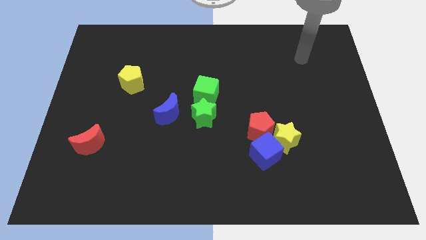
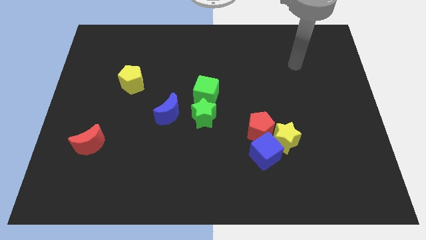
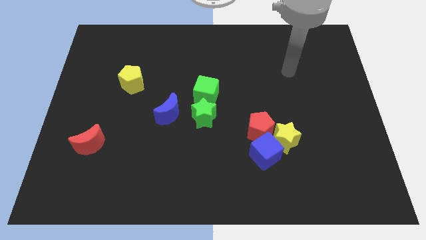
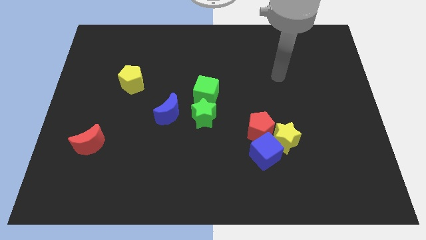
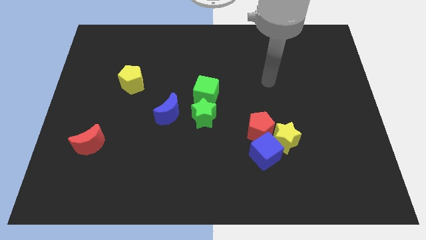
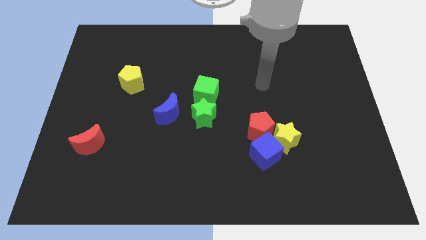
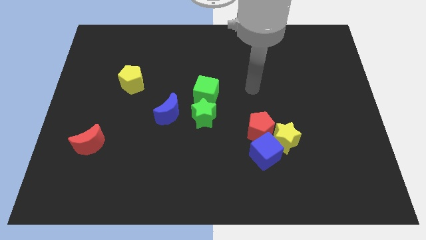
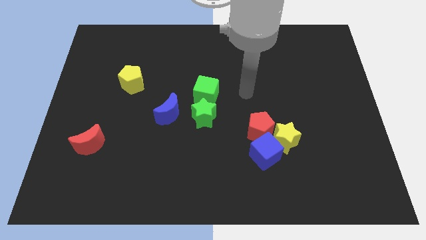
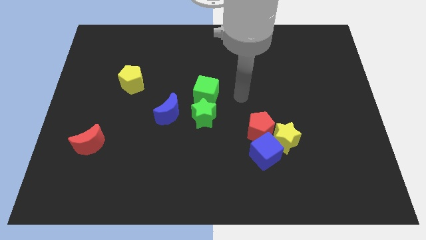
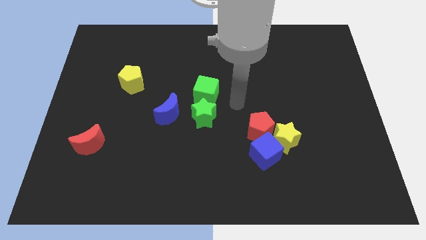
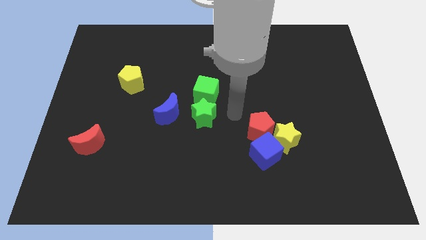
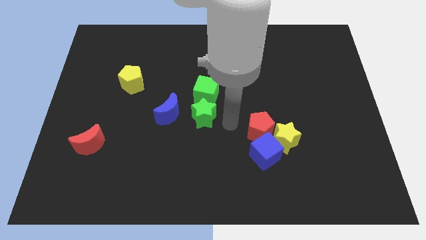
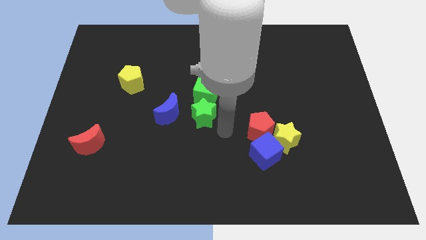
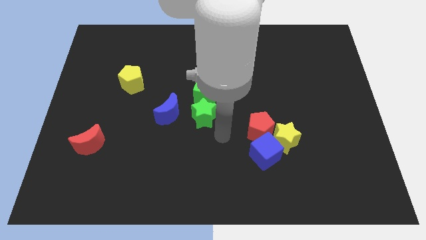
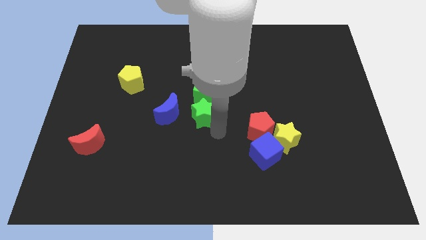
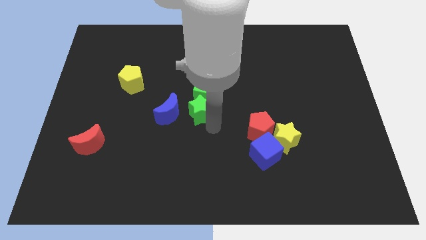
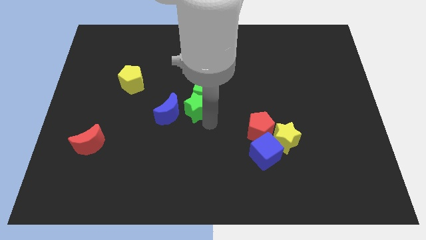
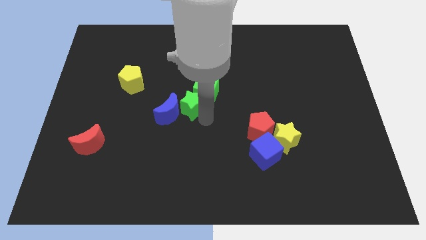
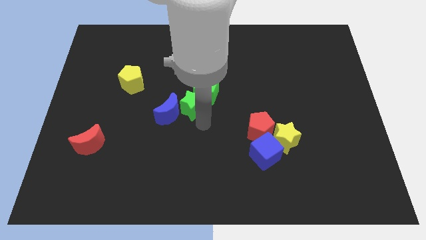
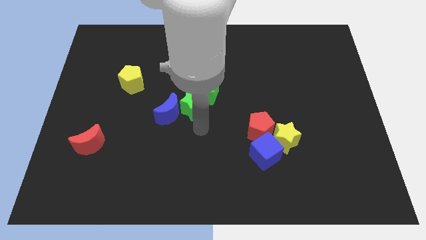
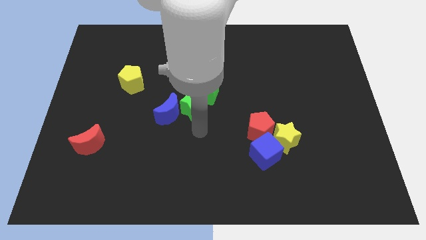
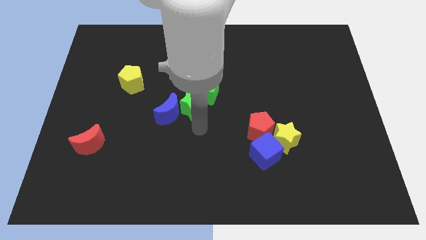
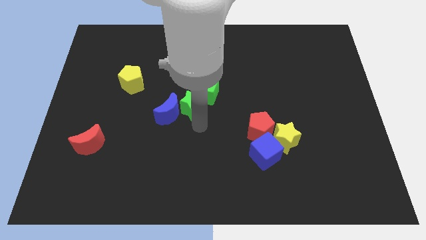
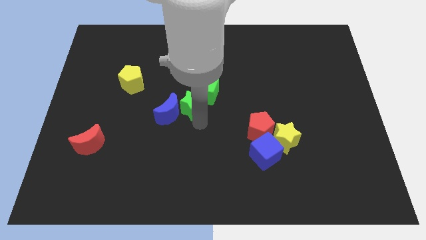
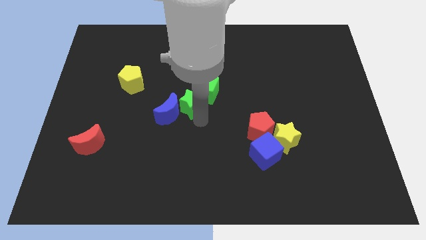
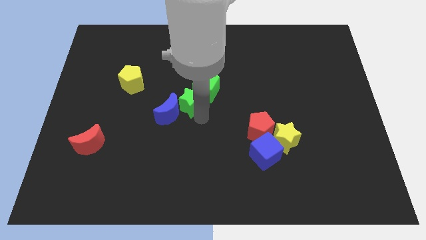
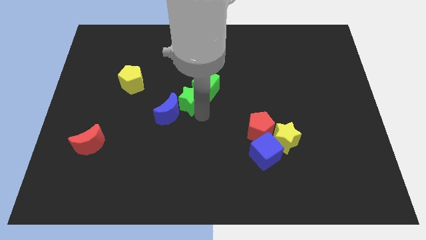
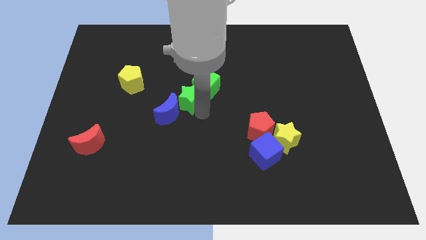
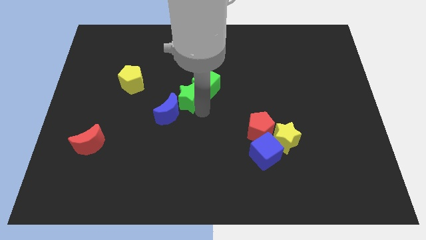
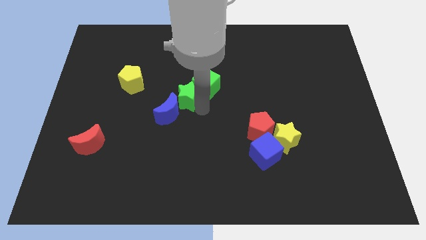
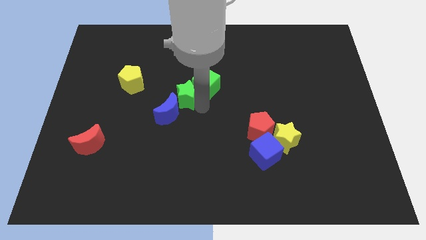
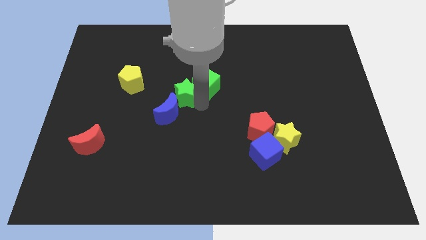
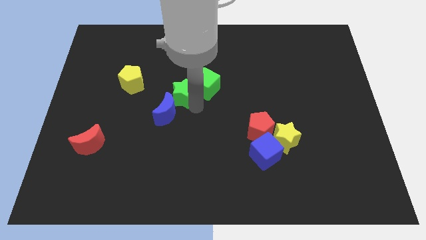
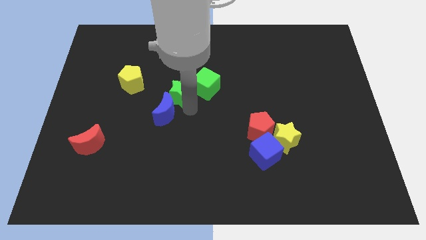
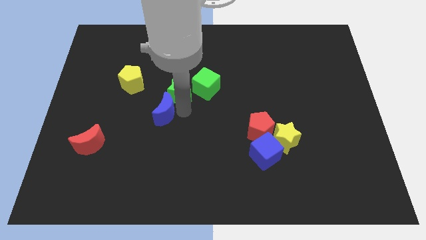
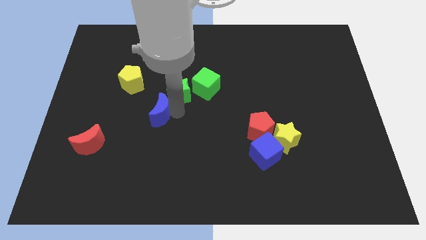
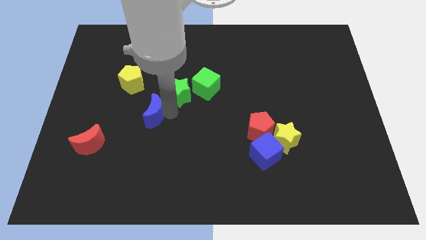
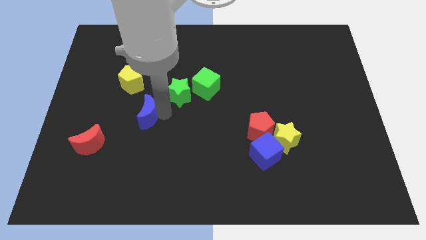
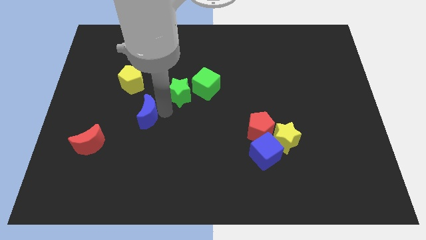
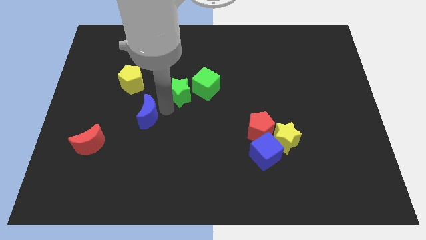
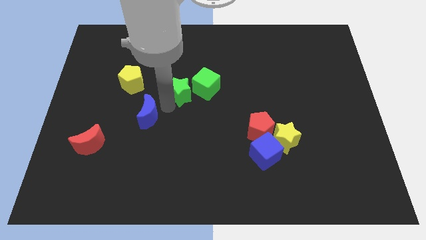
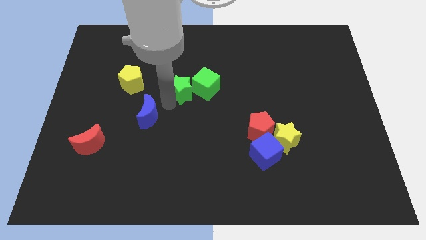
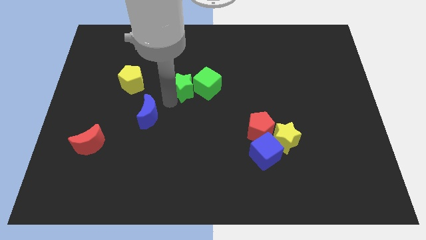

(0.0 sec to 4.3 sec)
push the green star a bit upwards

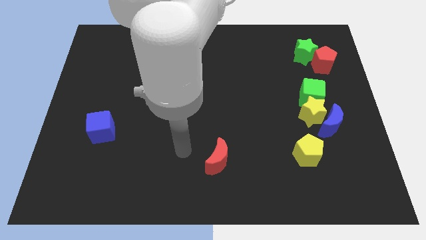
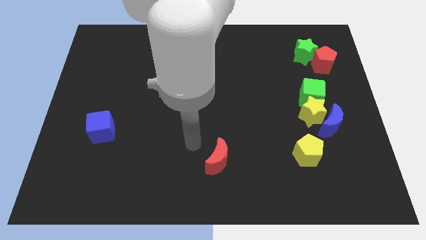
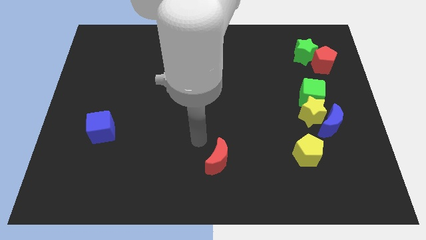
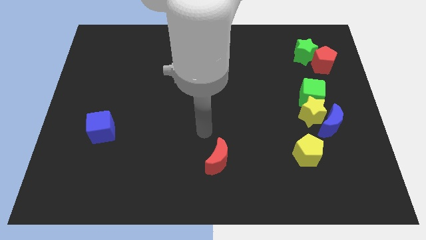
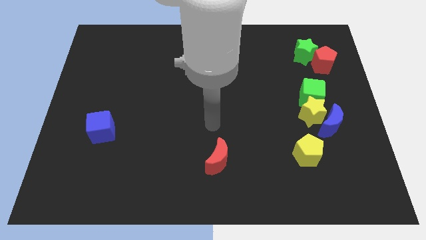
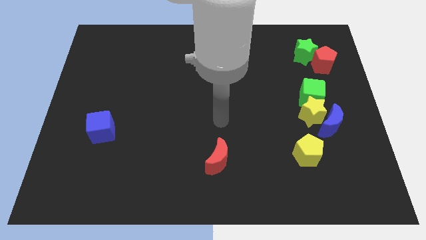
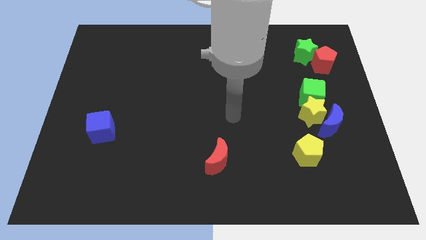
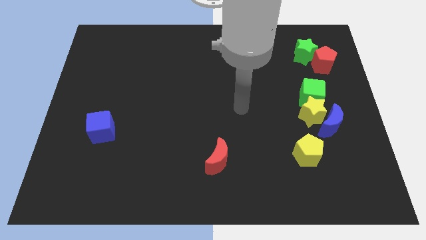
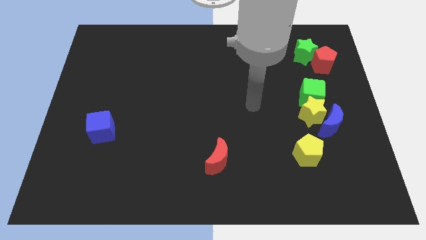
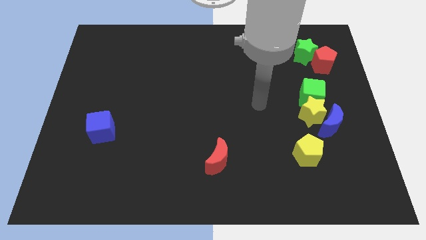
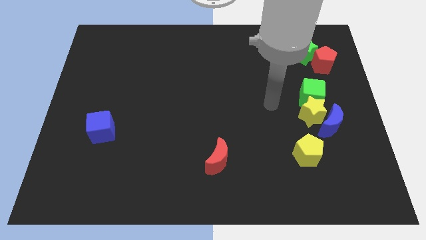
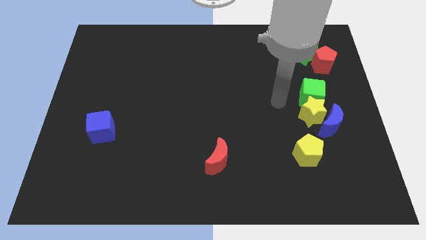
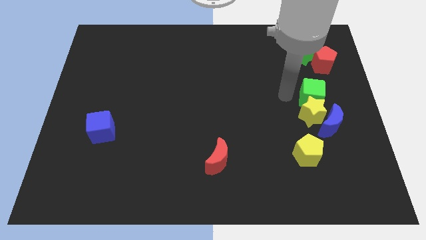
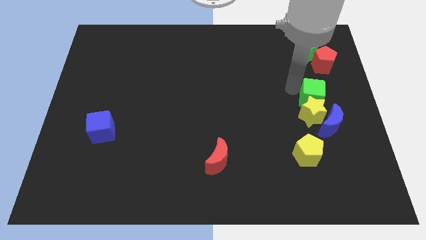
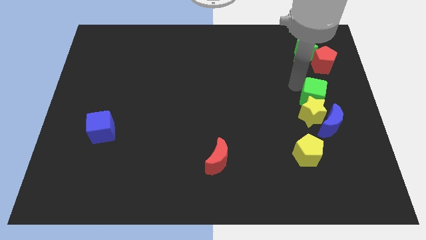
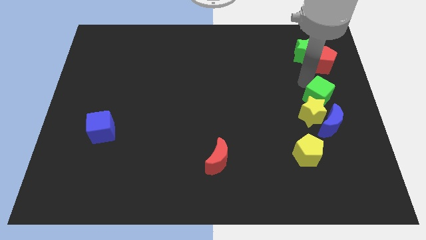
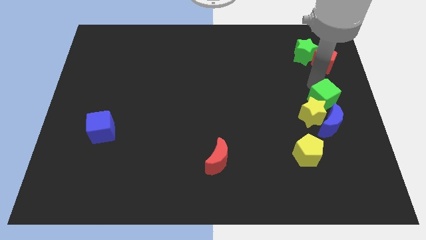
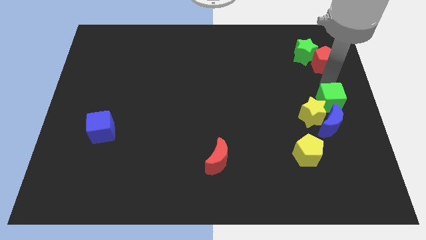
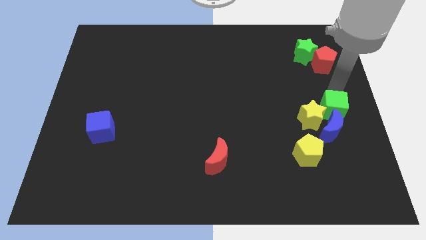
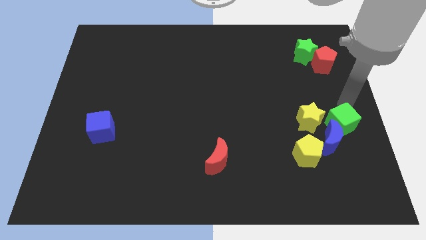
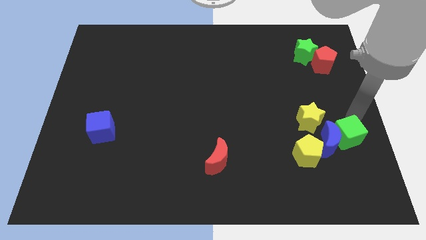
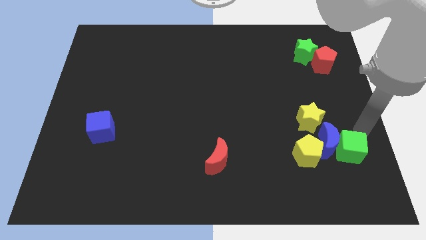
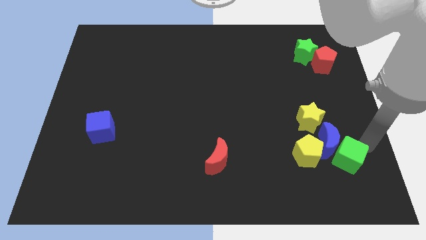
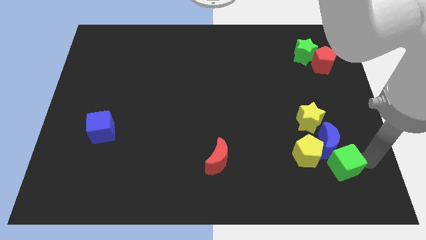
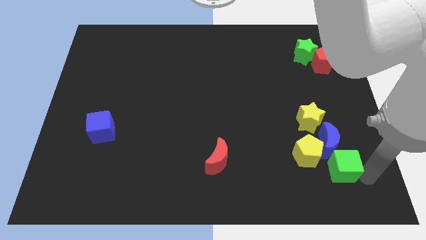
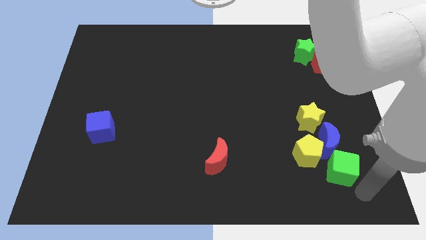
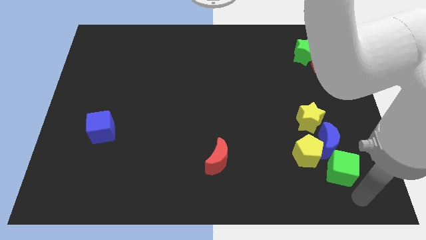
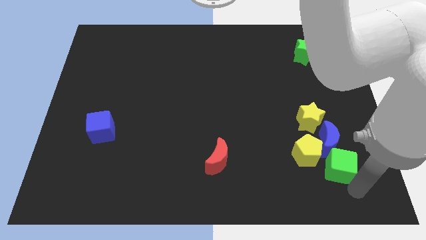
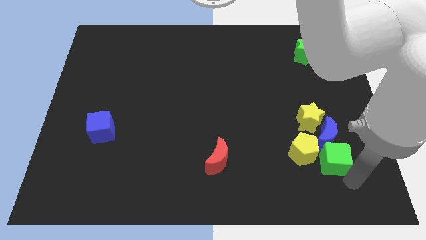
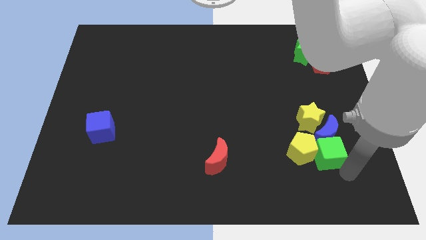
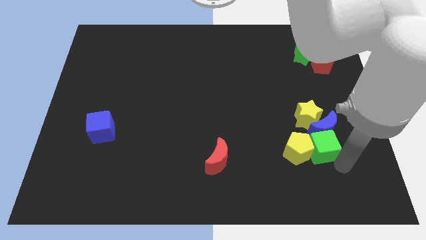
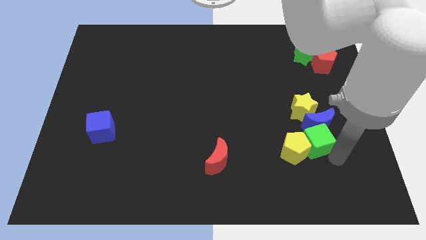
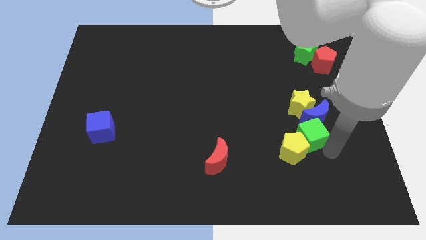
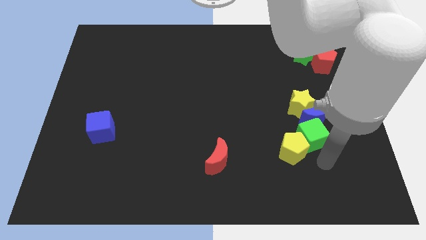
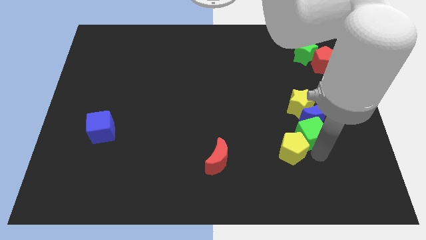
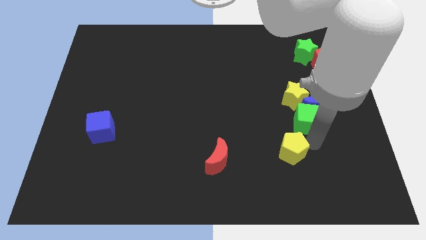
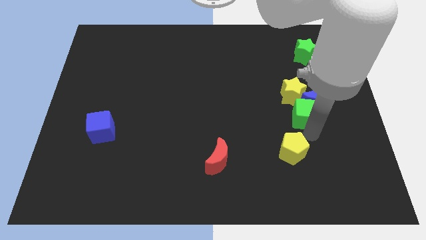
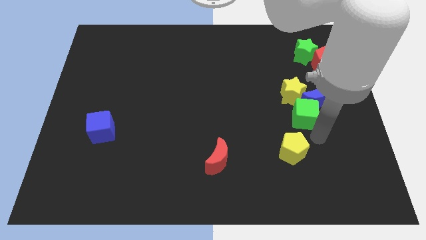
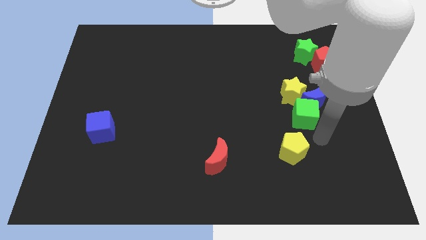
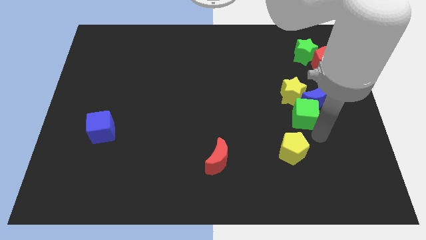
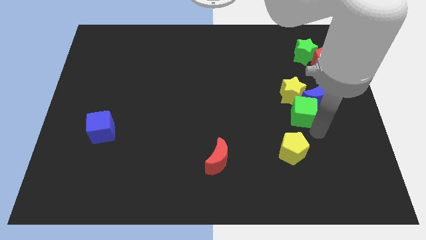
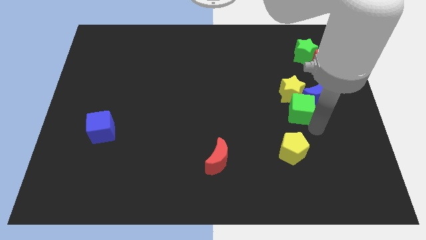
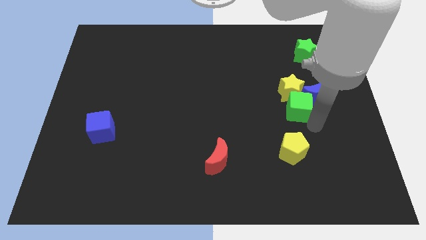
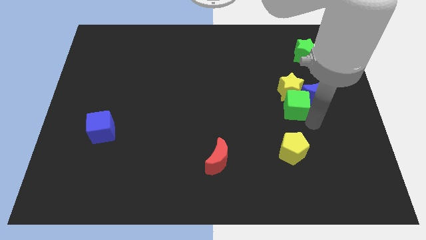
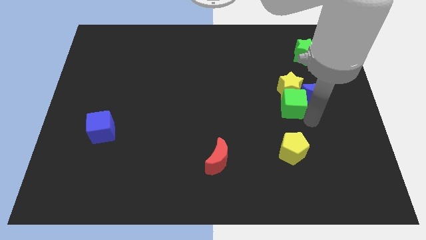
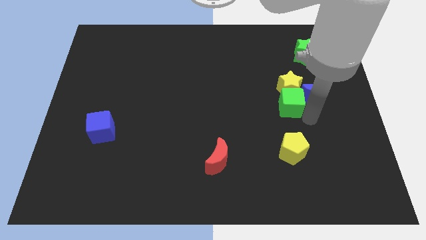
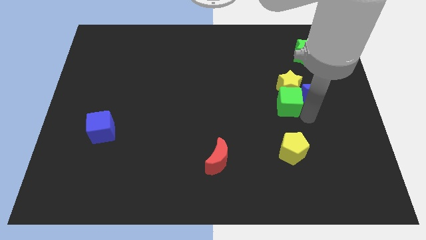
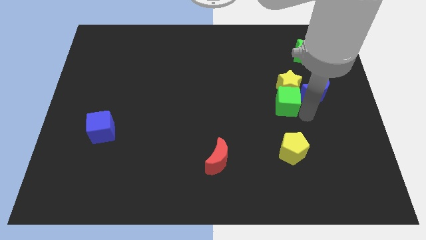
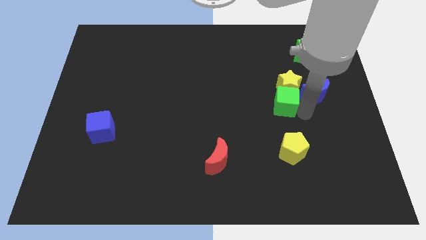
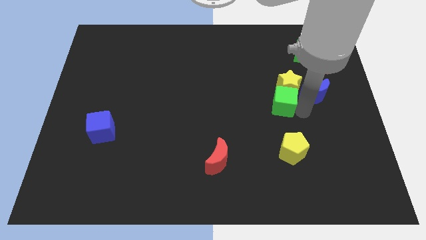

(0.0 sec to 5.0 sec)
move the green cube left somewhat
